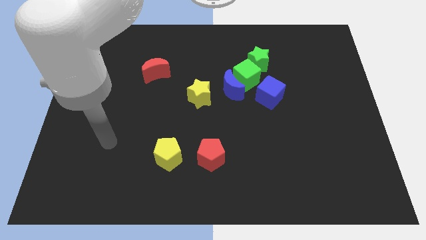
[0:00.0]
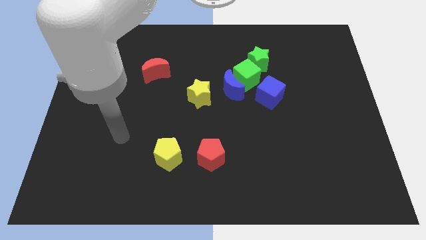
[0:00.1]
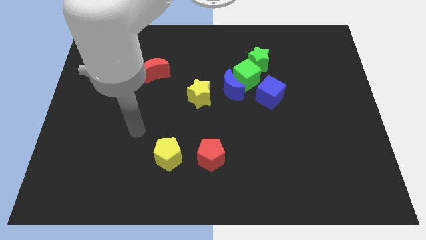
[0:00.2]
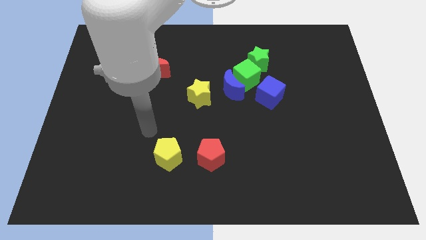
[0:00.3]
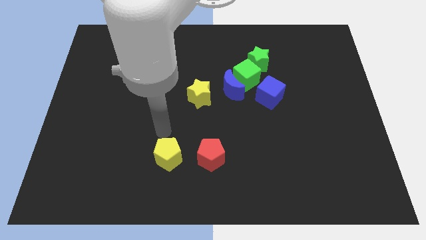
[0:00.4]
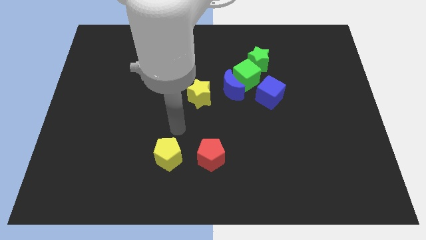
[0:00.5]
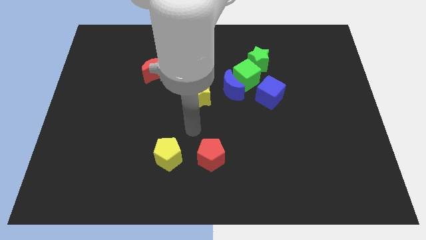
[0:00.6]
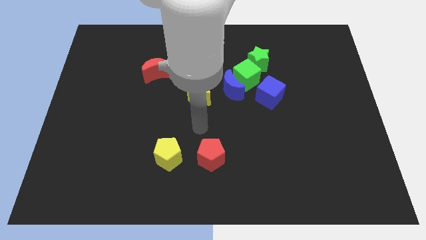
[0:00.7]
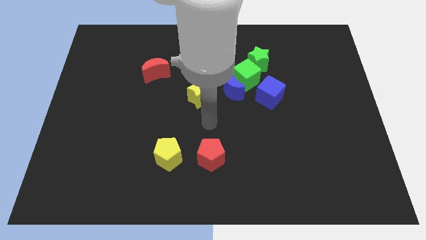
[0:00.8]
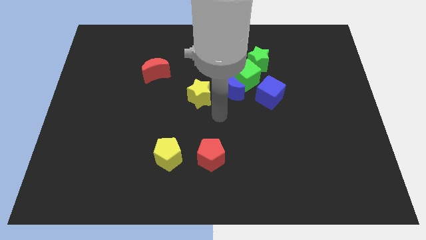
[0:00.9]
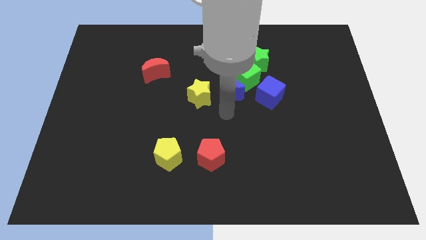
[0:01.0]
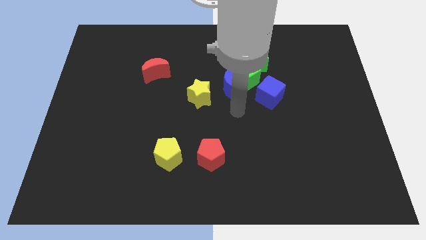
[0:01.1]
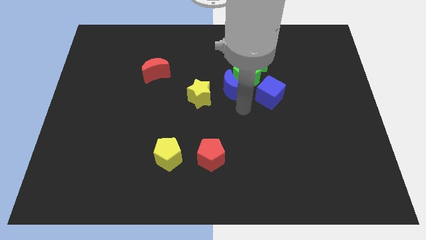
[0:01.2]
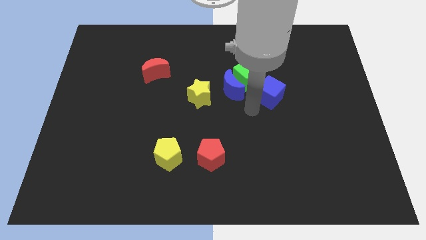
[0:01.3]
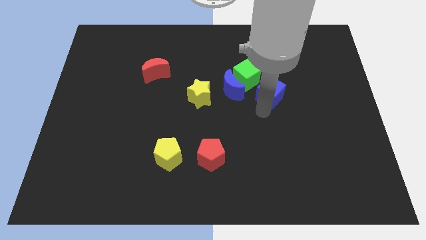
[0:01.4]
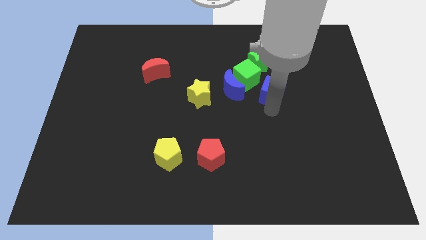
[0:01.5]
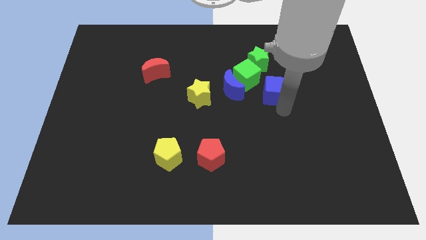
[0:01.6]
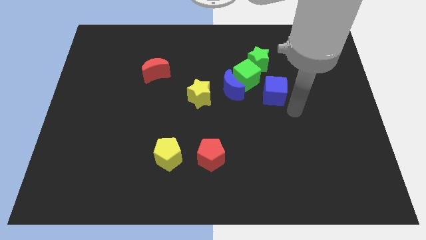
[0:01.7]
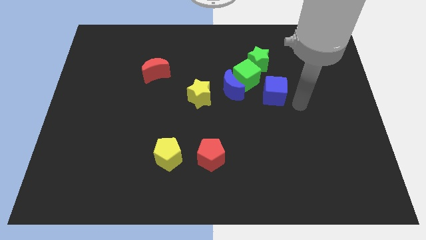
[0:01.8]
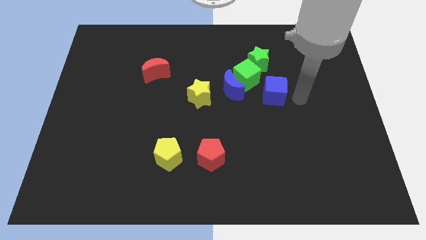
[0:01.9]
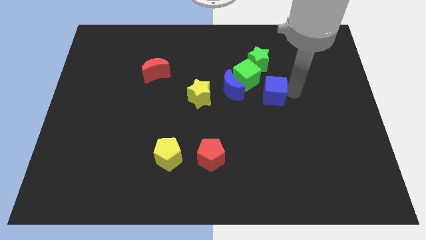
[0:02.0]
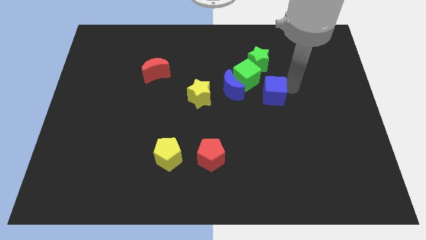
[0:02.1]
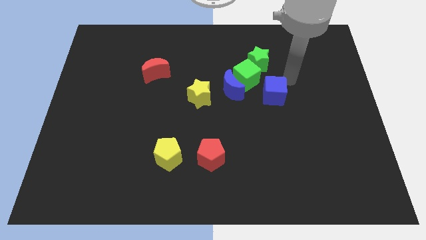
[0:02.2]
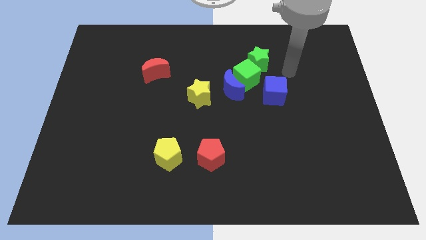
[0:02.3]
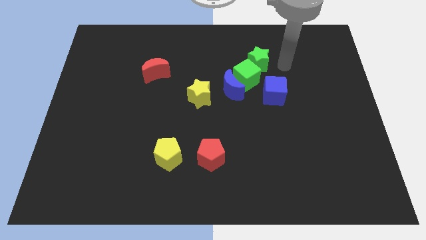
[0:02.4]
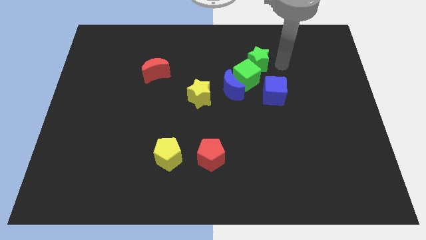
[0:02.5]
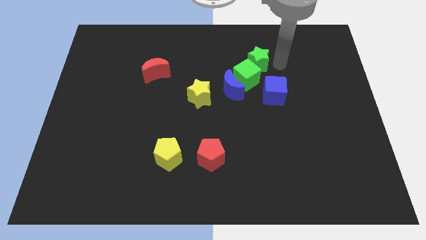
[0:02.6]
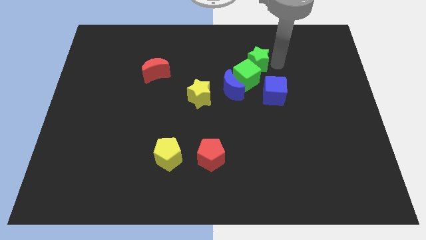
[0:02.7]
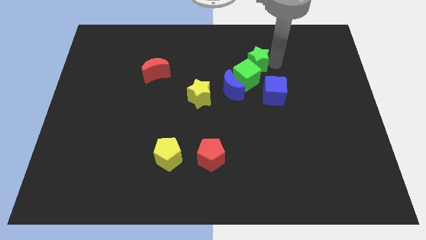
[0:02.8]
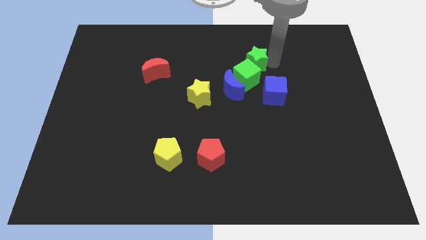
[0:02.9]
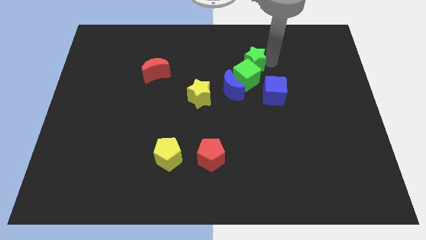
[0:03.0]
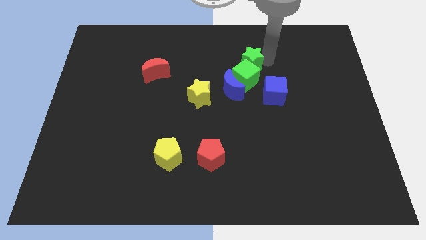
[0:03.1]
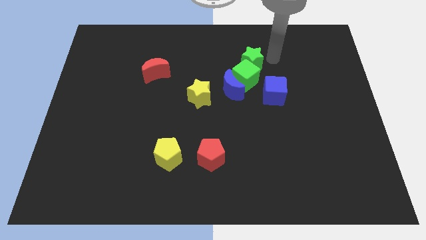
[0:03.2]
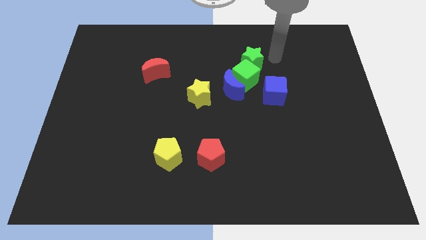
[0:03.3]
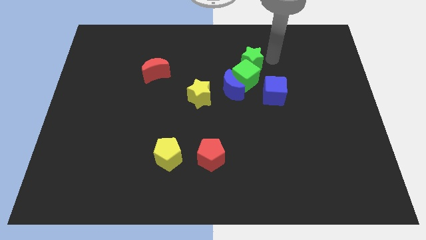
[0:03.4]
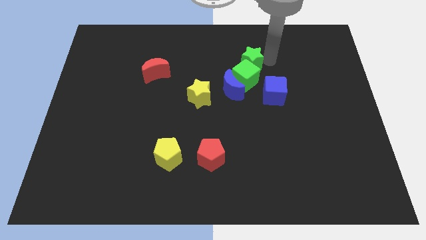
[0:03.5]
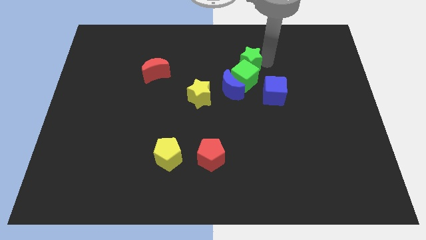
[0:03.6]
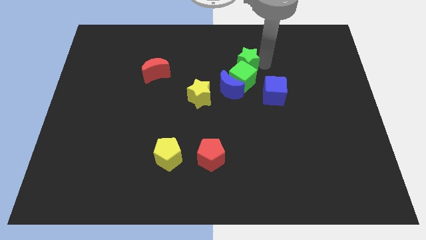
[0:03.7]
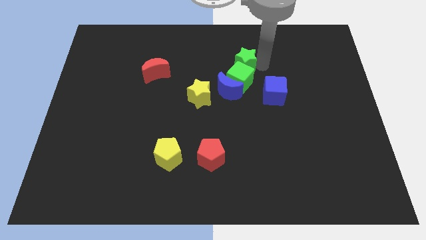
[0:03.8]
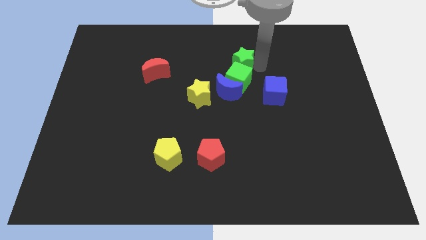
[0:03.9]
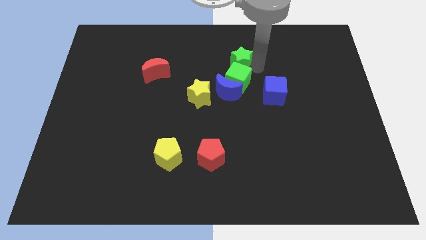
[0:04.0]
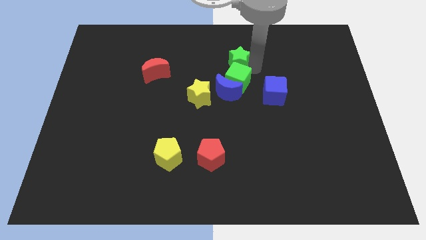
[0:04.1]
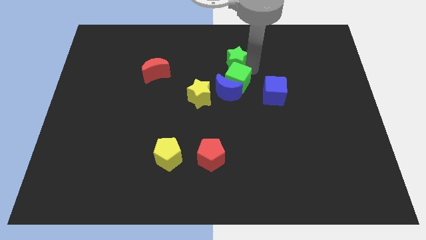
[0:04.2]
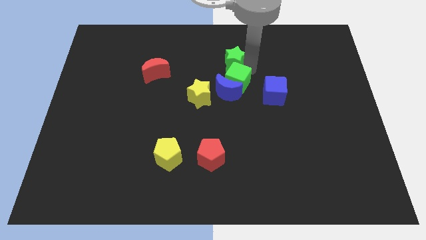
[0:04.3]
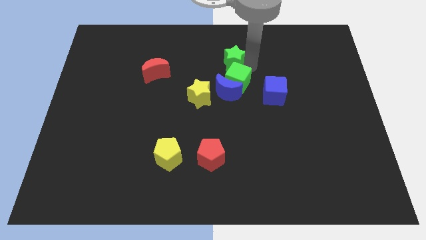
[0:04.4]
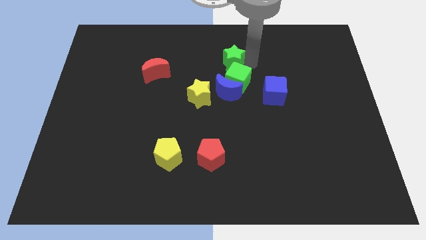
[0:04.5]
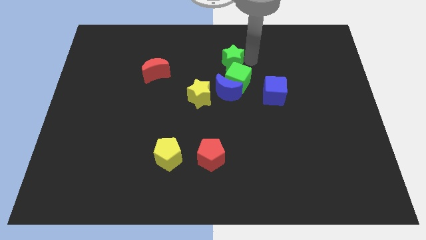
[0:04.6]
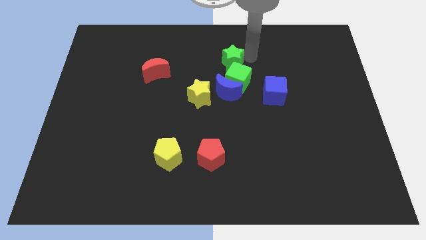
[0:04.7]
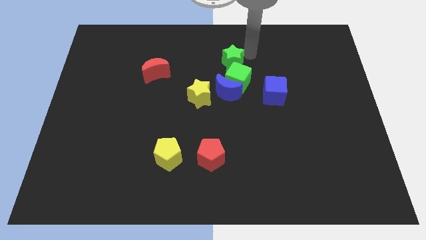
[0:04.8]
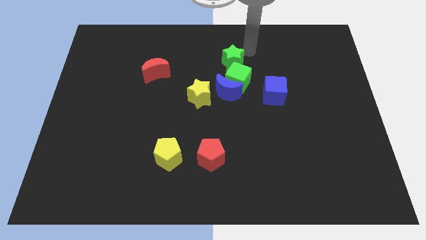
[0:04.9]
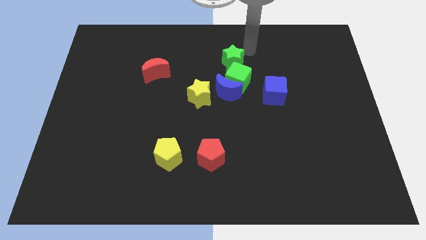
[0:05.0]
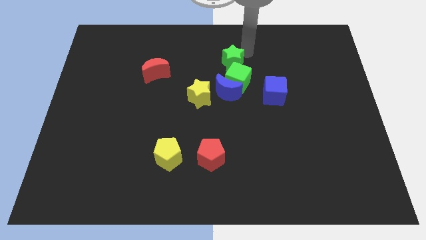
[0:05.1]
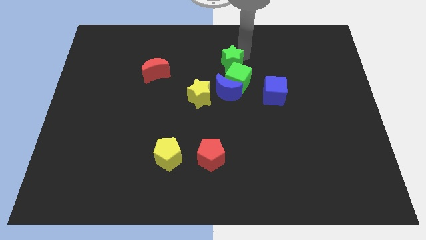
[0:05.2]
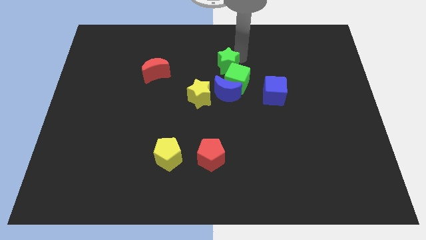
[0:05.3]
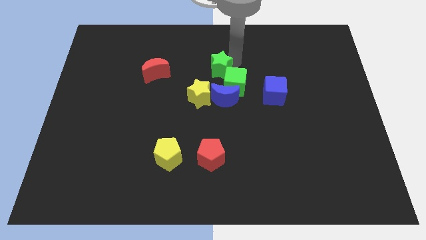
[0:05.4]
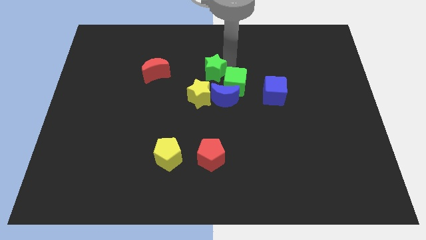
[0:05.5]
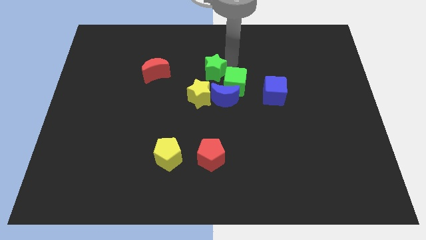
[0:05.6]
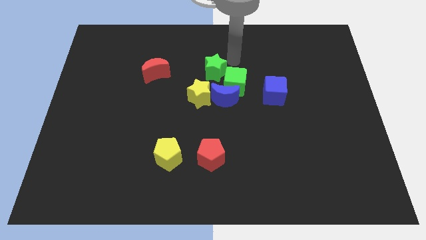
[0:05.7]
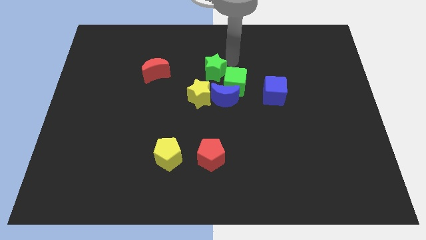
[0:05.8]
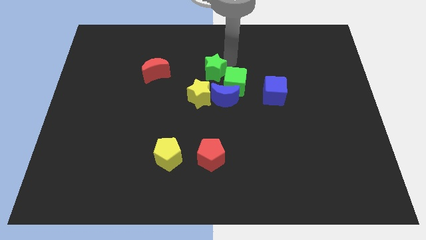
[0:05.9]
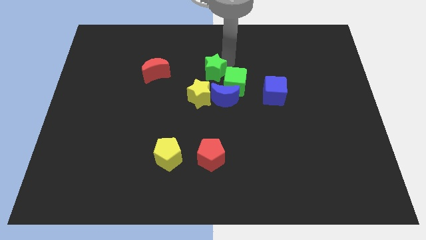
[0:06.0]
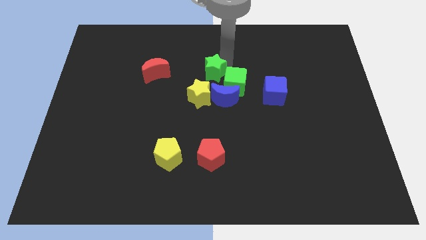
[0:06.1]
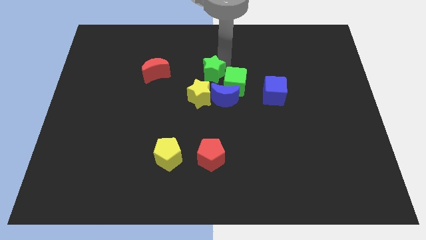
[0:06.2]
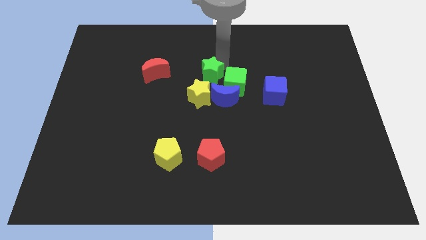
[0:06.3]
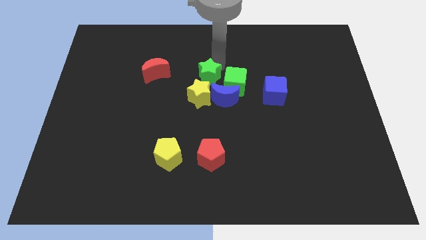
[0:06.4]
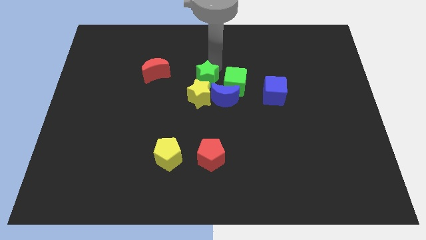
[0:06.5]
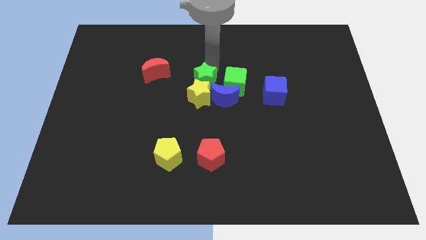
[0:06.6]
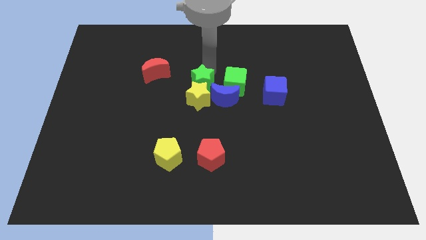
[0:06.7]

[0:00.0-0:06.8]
push the green star left of the blue moon
